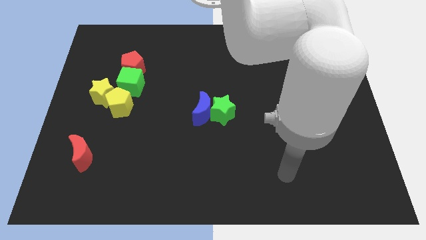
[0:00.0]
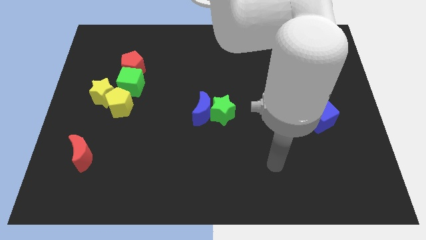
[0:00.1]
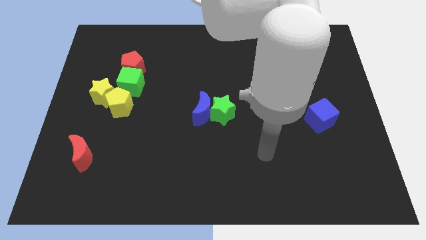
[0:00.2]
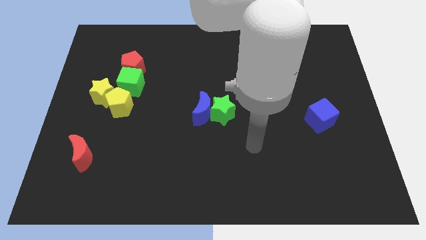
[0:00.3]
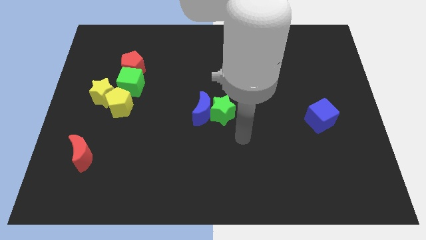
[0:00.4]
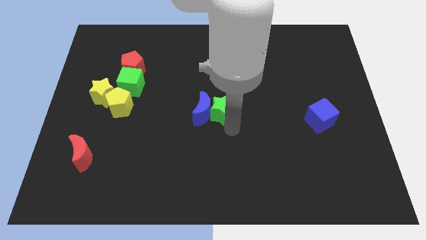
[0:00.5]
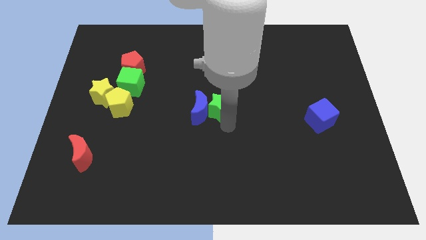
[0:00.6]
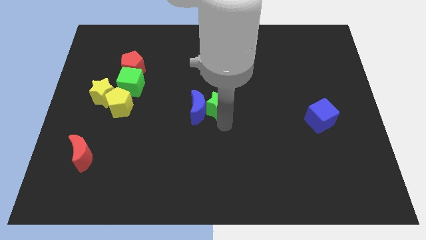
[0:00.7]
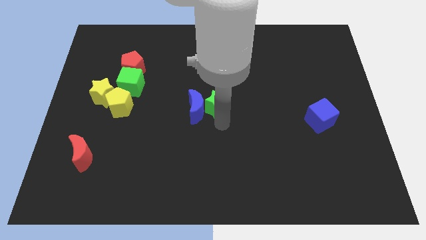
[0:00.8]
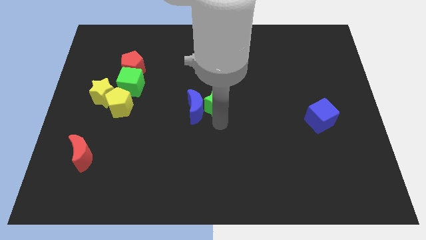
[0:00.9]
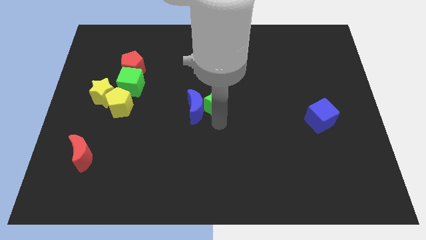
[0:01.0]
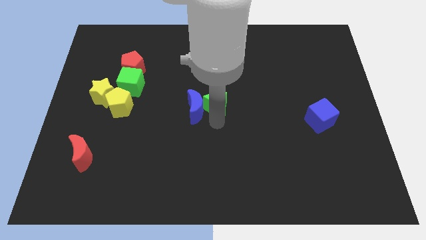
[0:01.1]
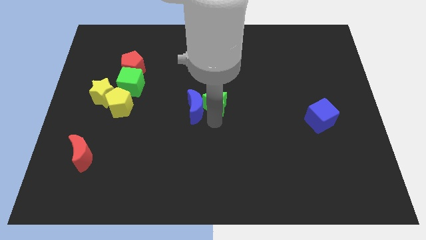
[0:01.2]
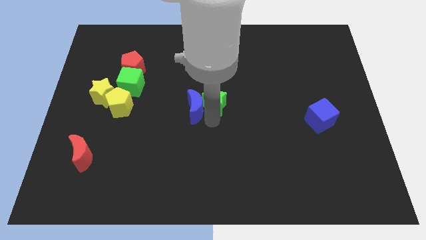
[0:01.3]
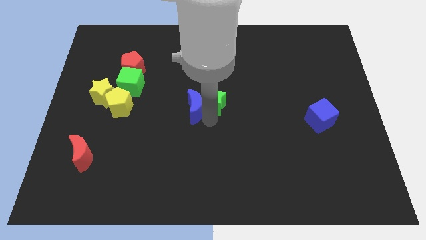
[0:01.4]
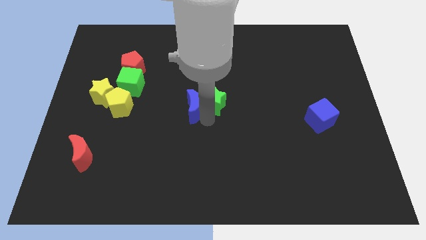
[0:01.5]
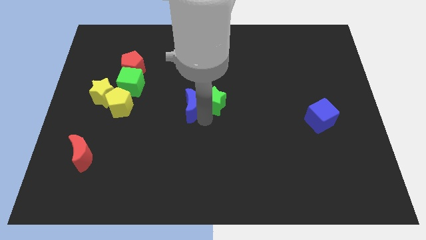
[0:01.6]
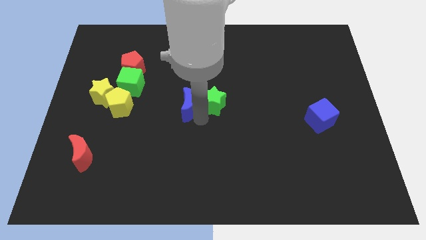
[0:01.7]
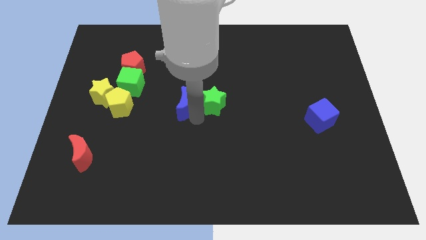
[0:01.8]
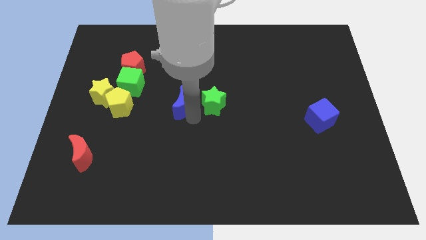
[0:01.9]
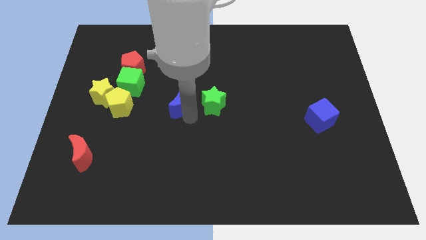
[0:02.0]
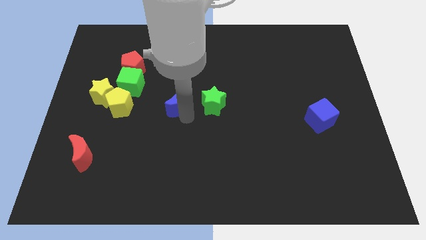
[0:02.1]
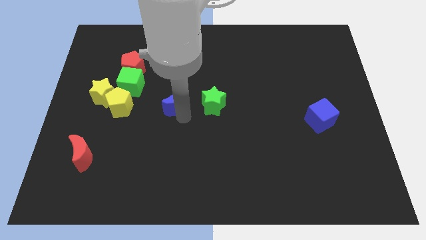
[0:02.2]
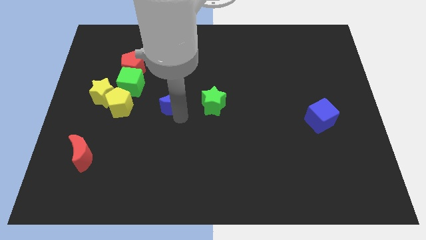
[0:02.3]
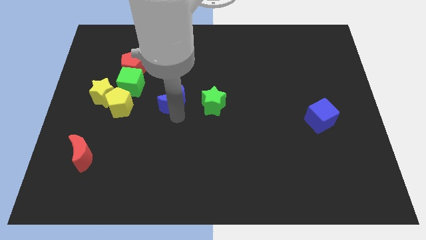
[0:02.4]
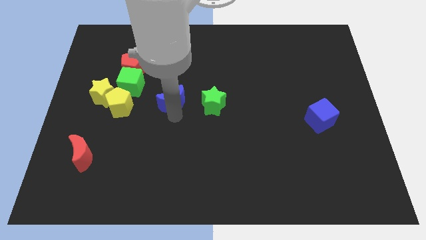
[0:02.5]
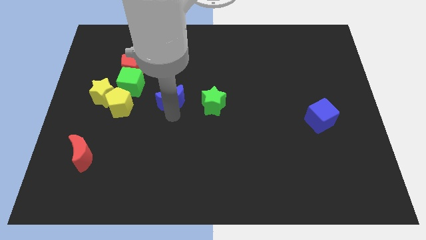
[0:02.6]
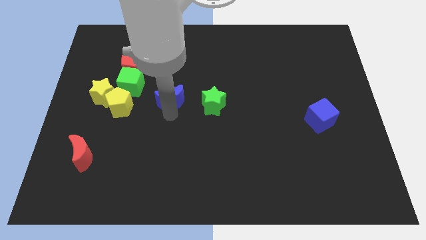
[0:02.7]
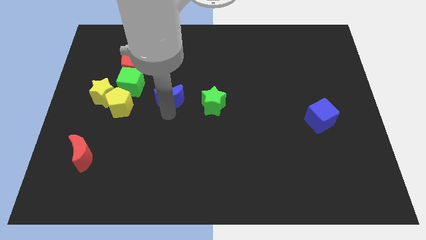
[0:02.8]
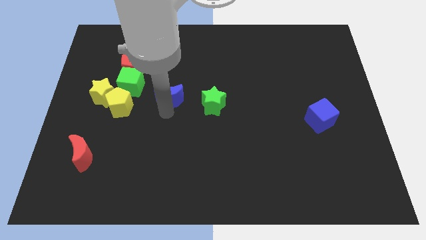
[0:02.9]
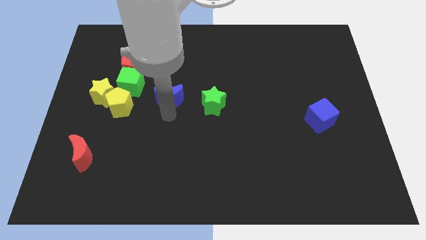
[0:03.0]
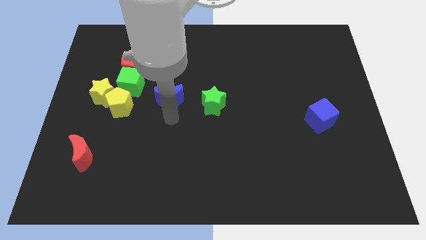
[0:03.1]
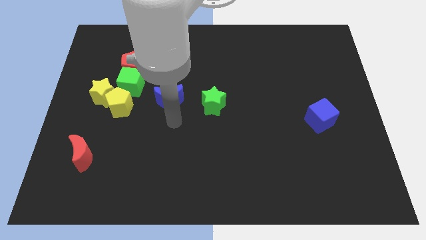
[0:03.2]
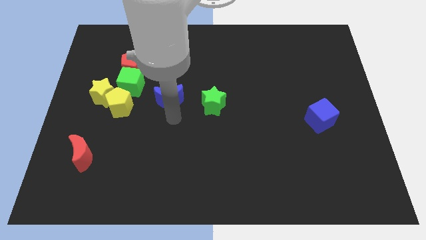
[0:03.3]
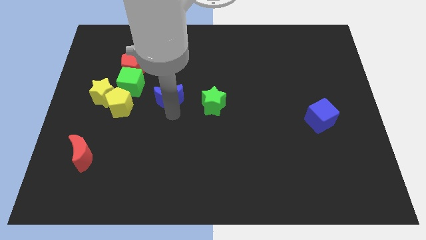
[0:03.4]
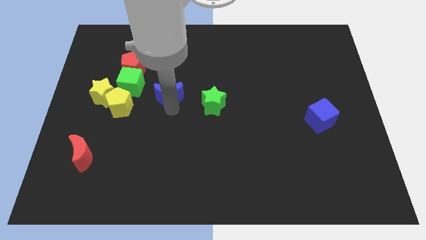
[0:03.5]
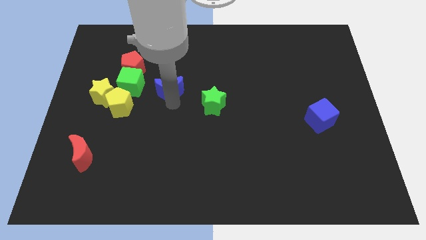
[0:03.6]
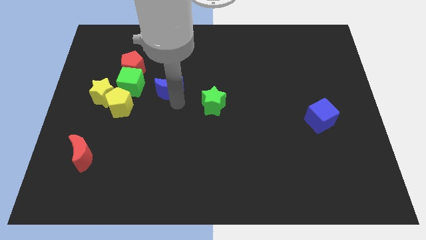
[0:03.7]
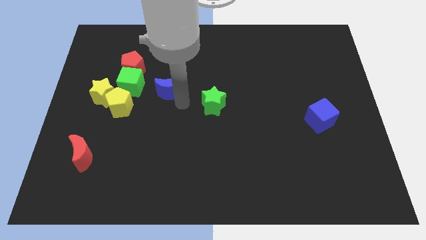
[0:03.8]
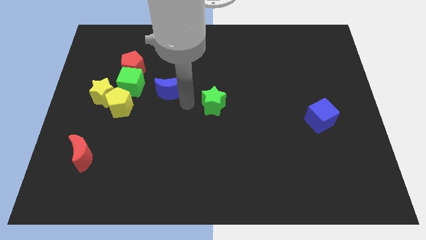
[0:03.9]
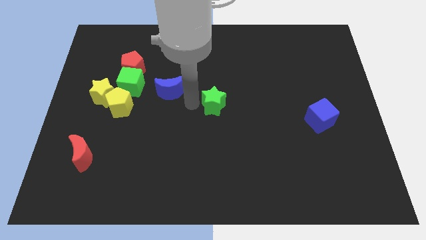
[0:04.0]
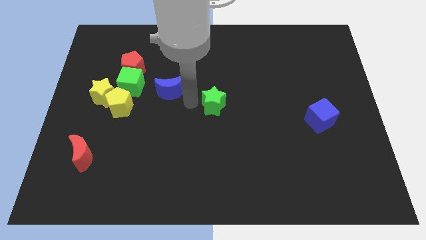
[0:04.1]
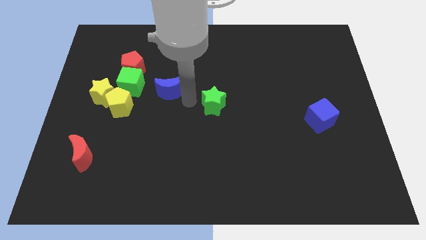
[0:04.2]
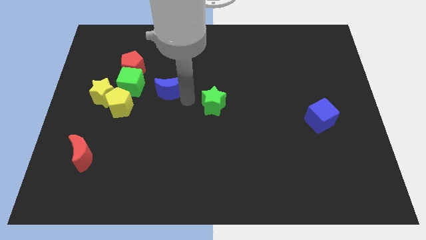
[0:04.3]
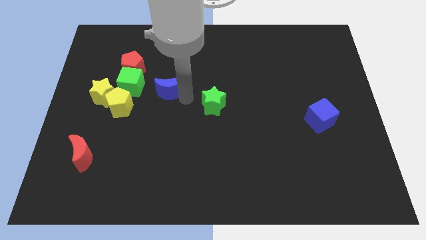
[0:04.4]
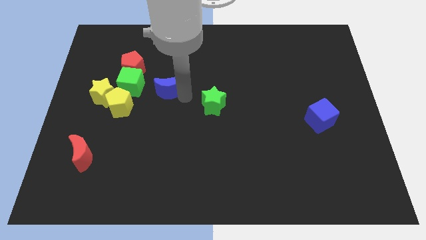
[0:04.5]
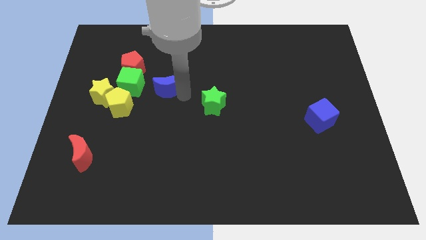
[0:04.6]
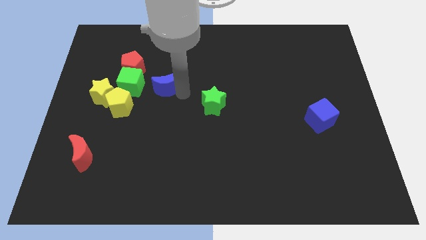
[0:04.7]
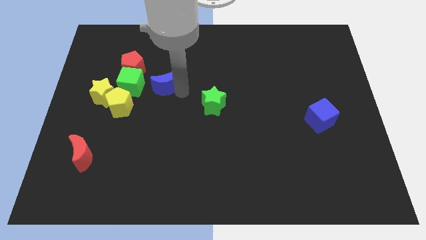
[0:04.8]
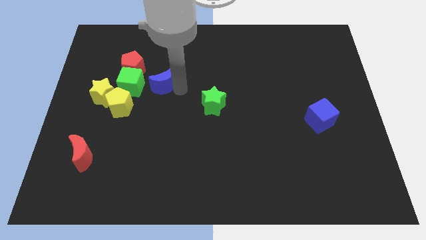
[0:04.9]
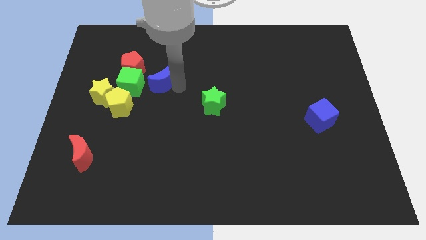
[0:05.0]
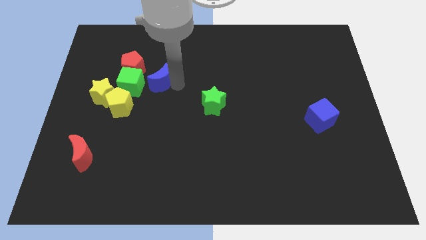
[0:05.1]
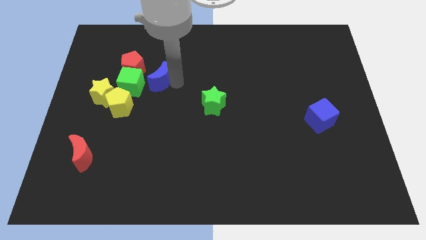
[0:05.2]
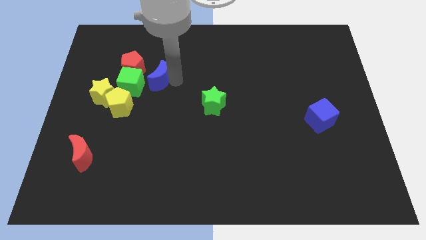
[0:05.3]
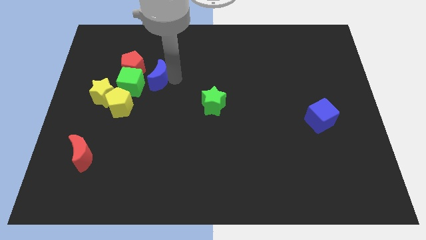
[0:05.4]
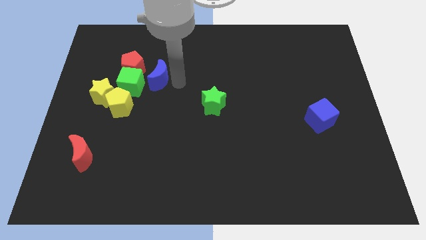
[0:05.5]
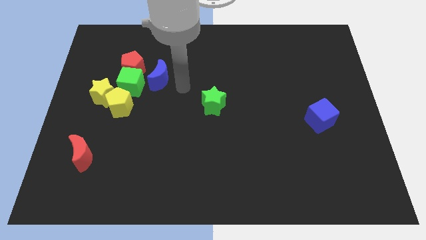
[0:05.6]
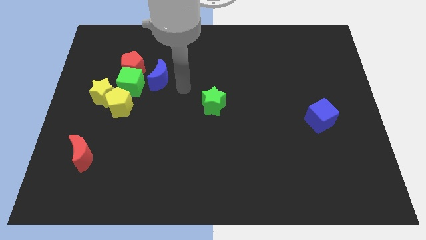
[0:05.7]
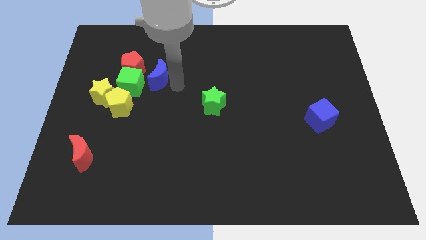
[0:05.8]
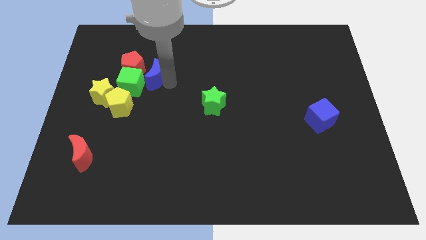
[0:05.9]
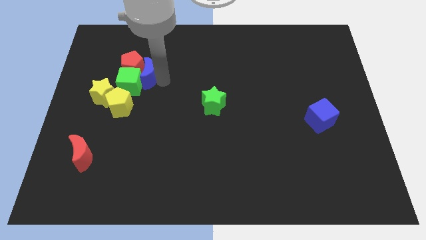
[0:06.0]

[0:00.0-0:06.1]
push the blue moon towards the red pentagon
